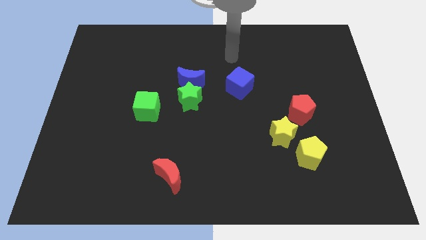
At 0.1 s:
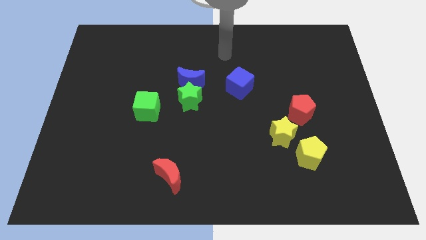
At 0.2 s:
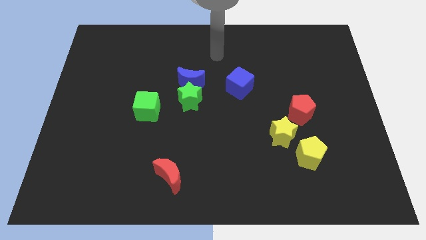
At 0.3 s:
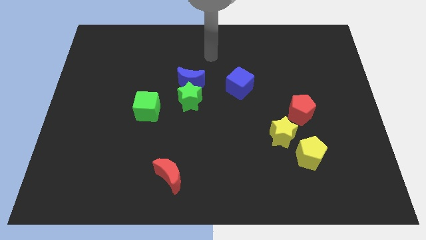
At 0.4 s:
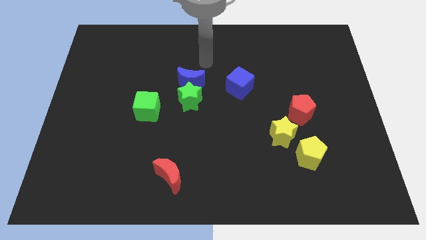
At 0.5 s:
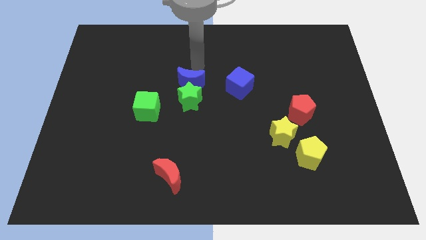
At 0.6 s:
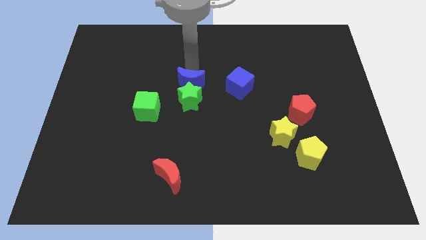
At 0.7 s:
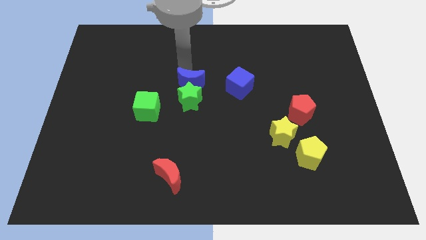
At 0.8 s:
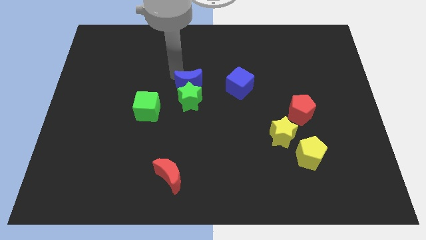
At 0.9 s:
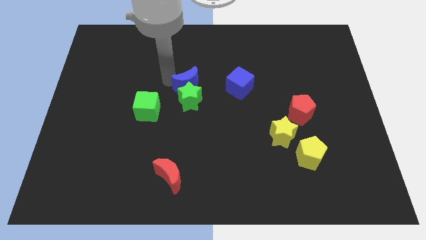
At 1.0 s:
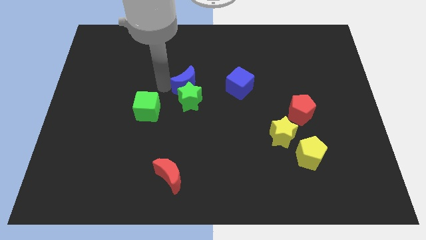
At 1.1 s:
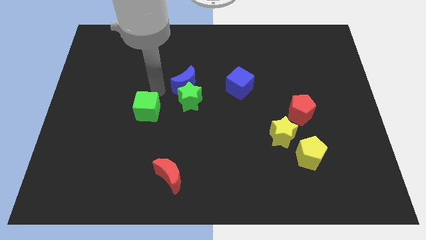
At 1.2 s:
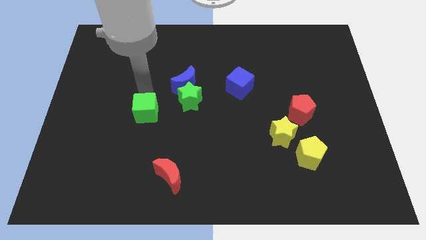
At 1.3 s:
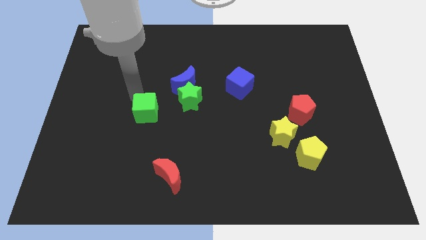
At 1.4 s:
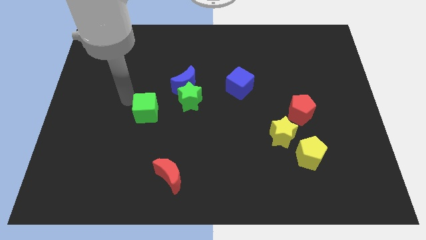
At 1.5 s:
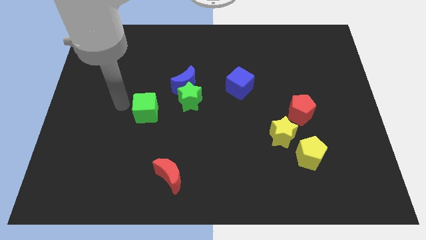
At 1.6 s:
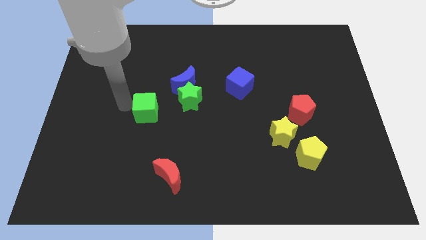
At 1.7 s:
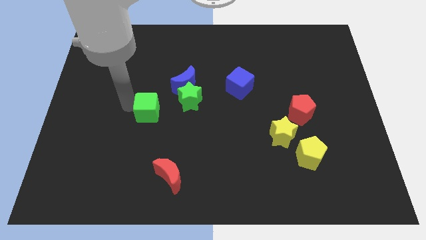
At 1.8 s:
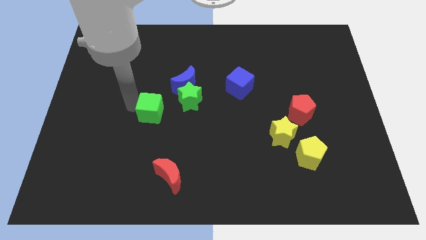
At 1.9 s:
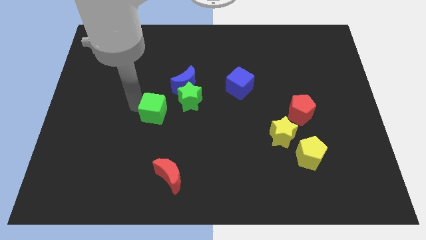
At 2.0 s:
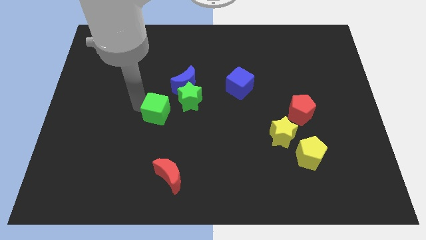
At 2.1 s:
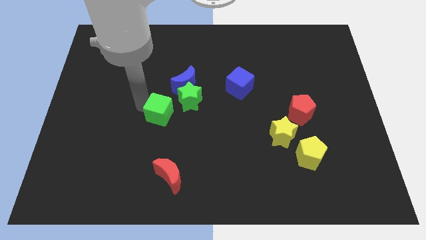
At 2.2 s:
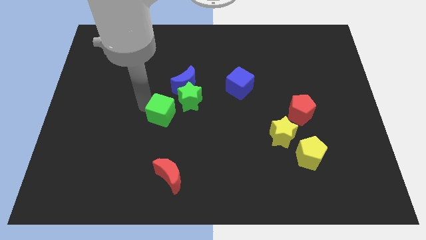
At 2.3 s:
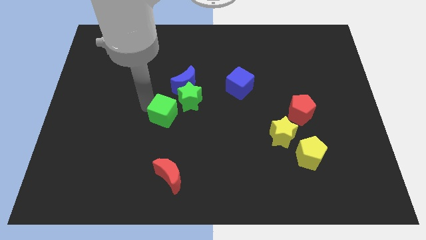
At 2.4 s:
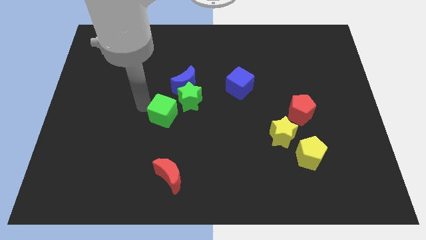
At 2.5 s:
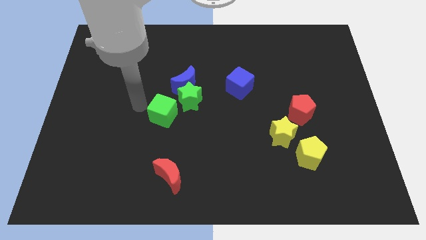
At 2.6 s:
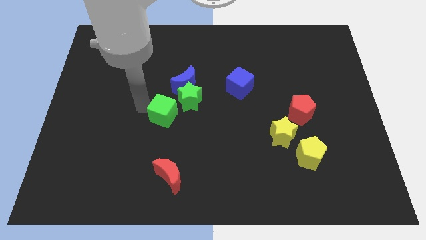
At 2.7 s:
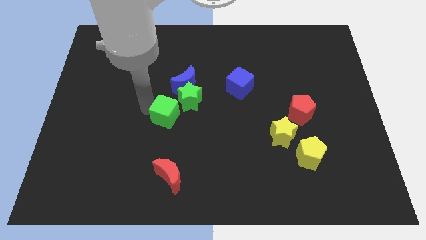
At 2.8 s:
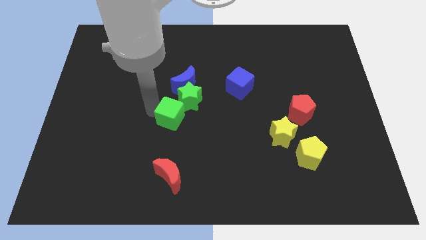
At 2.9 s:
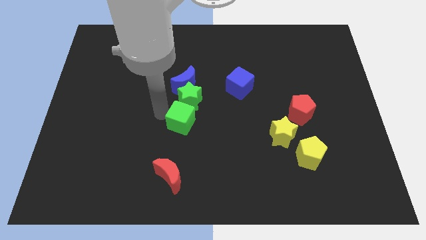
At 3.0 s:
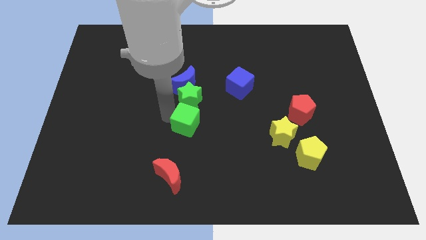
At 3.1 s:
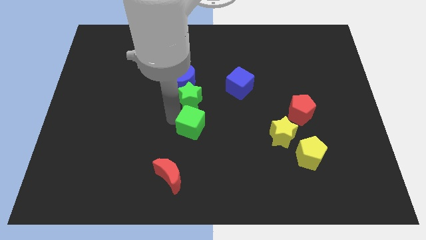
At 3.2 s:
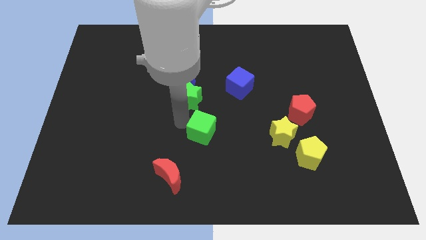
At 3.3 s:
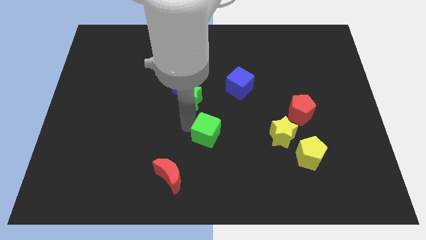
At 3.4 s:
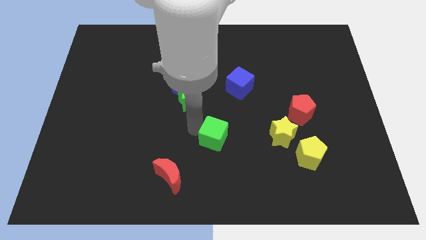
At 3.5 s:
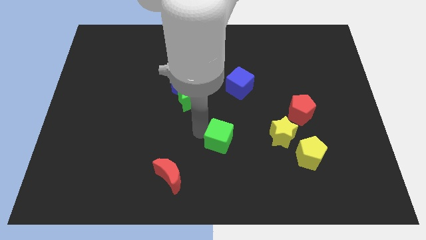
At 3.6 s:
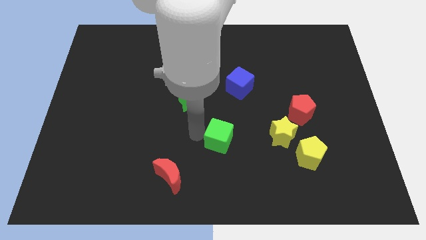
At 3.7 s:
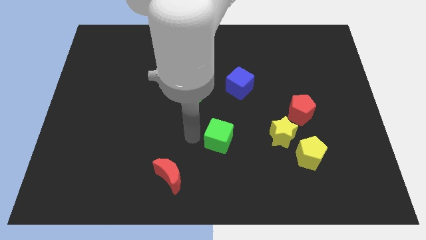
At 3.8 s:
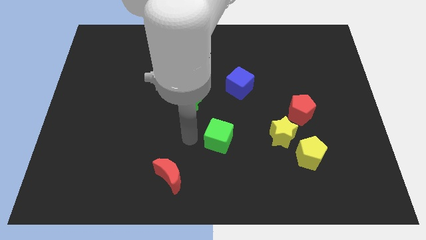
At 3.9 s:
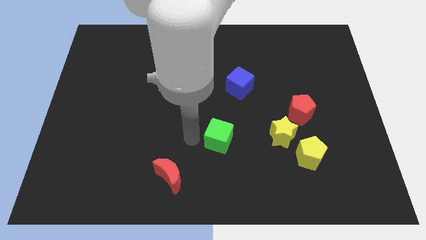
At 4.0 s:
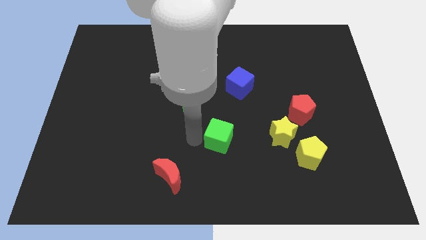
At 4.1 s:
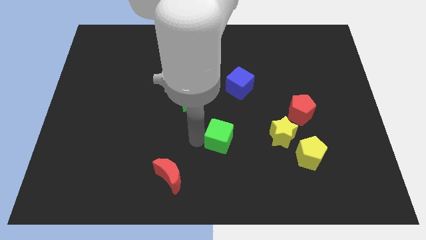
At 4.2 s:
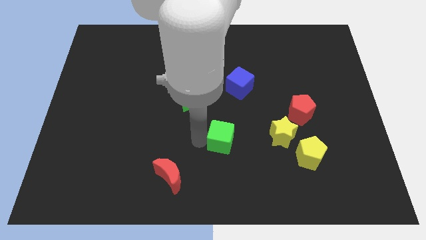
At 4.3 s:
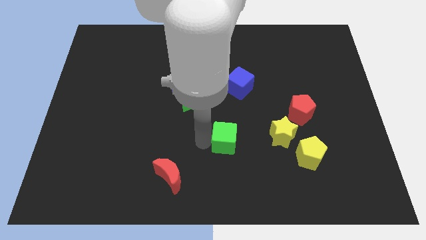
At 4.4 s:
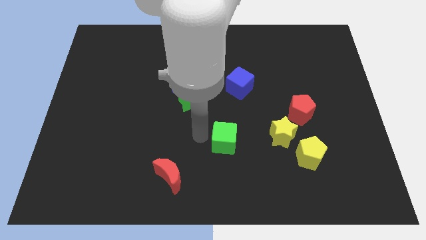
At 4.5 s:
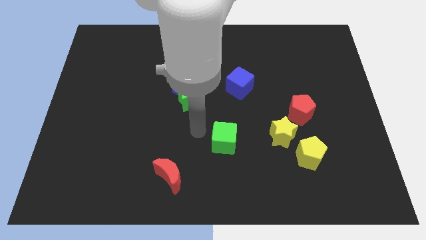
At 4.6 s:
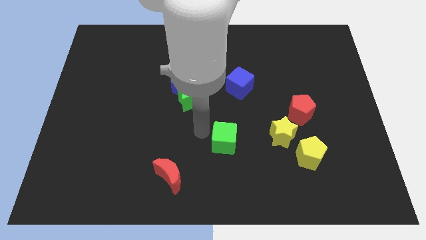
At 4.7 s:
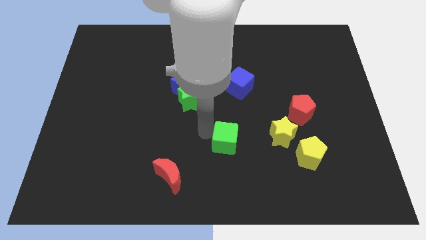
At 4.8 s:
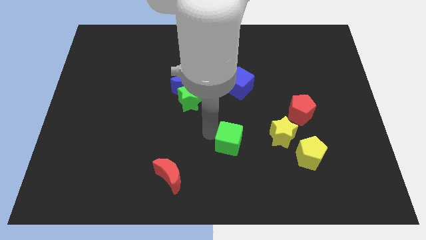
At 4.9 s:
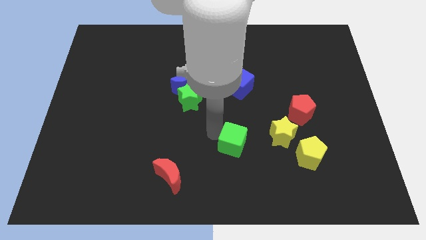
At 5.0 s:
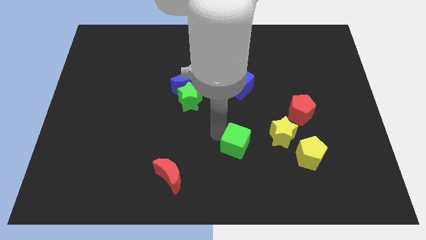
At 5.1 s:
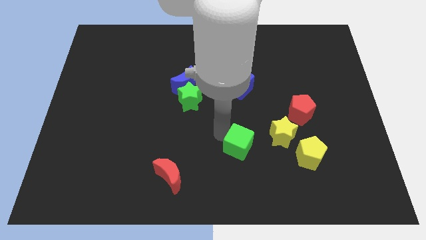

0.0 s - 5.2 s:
push the green cube to the left of the yellow pentagon

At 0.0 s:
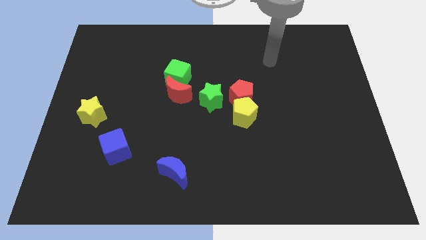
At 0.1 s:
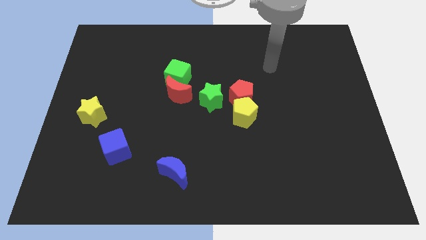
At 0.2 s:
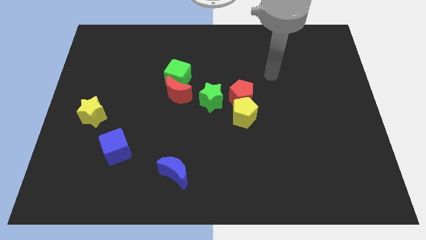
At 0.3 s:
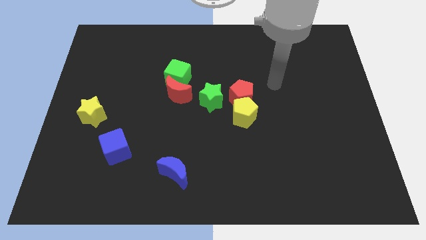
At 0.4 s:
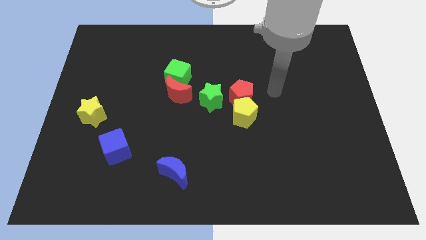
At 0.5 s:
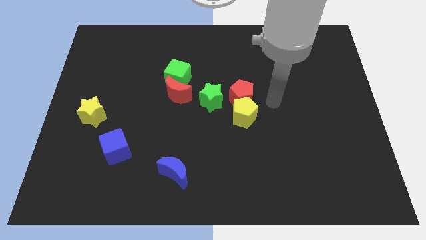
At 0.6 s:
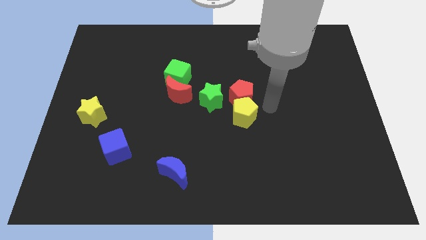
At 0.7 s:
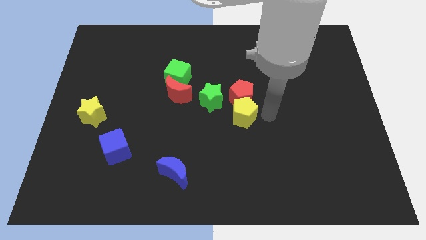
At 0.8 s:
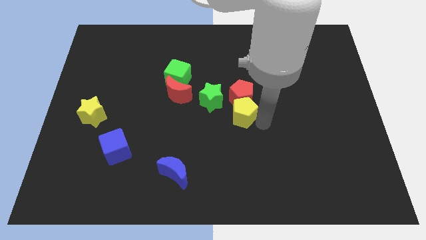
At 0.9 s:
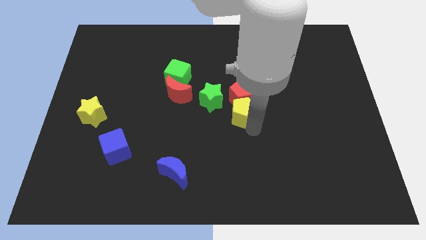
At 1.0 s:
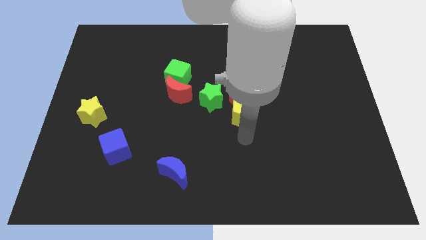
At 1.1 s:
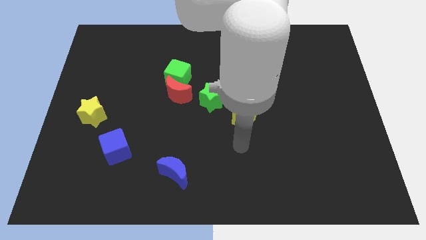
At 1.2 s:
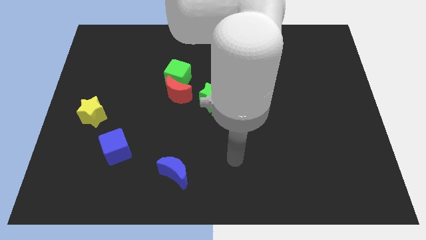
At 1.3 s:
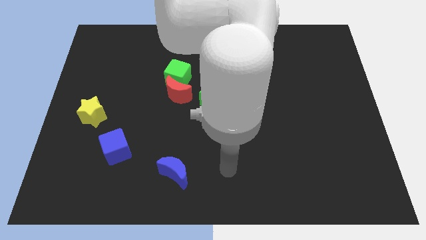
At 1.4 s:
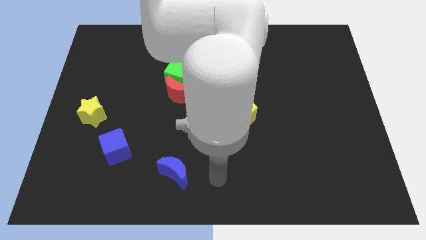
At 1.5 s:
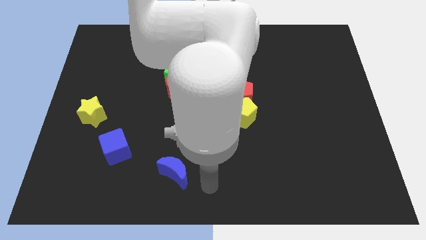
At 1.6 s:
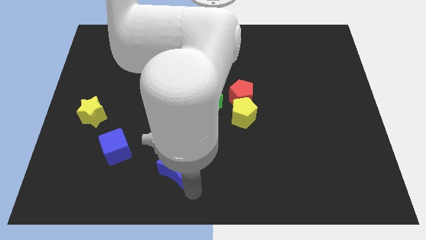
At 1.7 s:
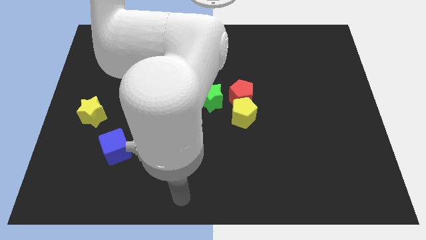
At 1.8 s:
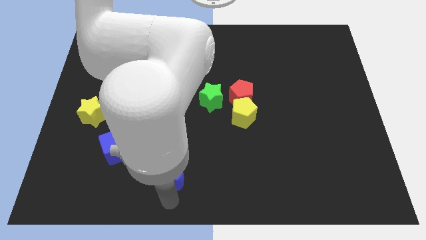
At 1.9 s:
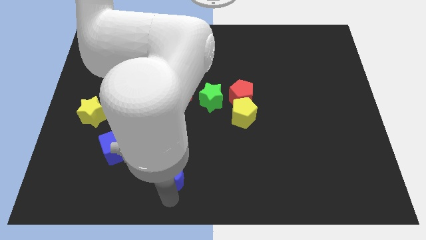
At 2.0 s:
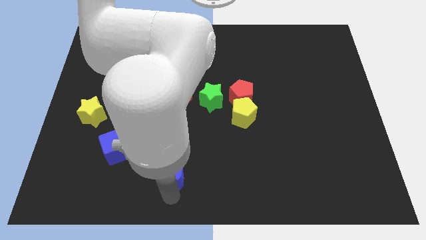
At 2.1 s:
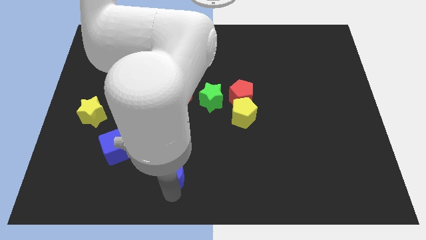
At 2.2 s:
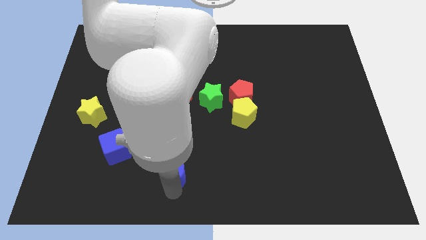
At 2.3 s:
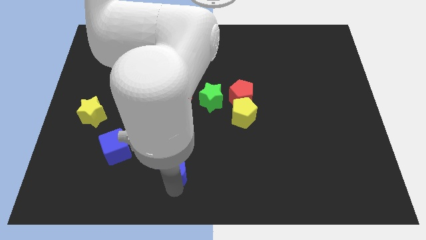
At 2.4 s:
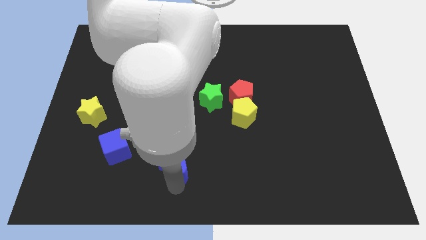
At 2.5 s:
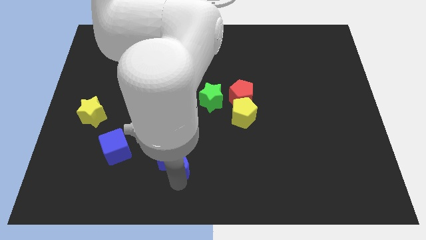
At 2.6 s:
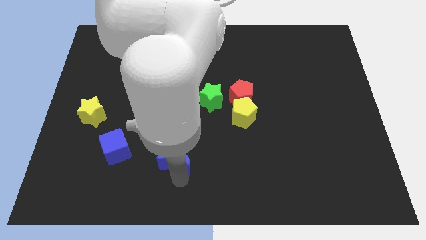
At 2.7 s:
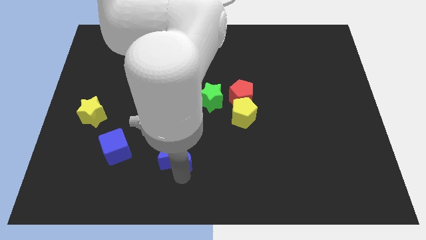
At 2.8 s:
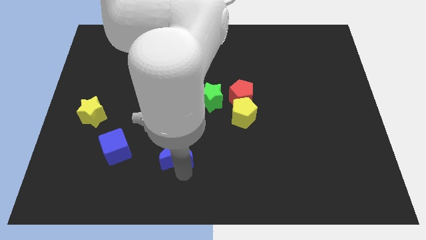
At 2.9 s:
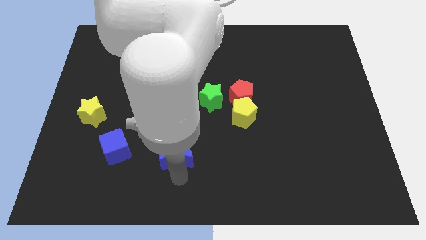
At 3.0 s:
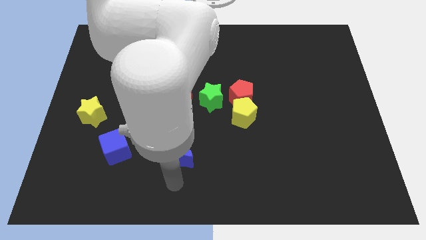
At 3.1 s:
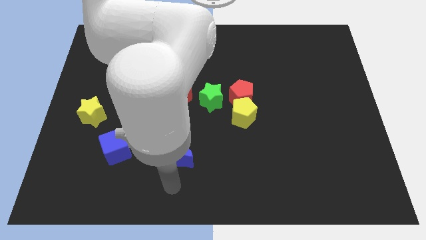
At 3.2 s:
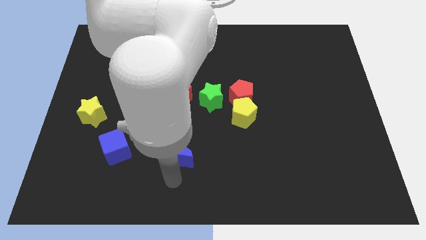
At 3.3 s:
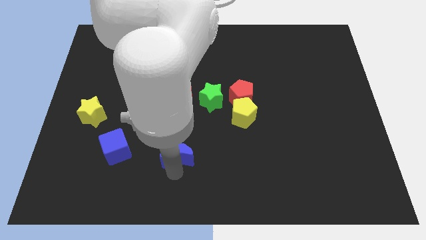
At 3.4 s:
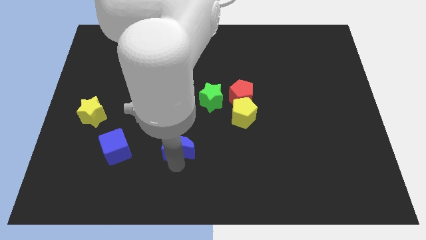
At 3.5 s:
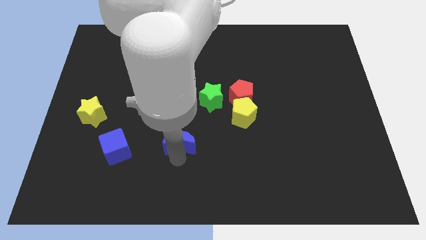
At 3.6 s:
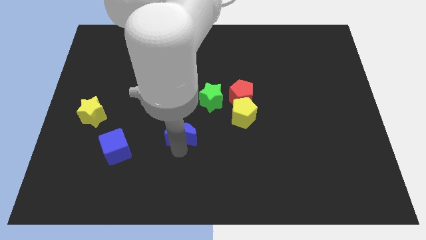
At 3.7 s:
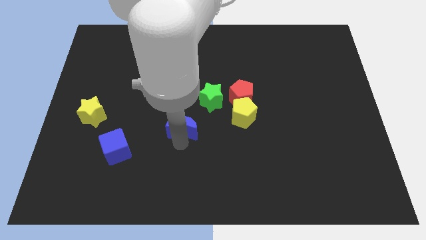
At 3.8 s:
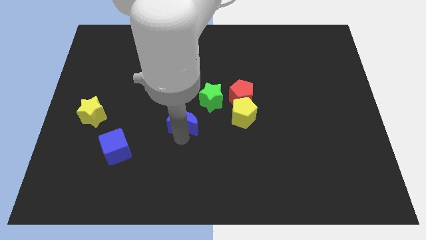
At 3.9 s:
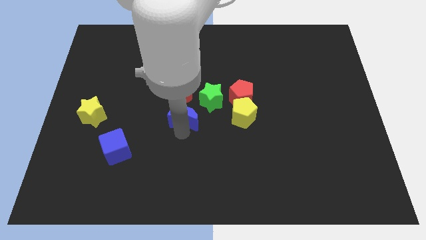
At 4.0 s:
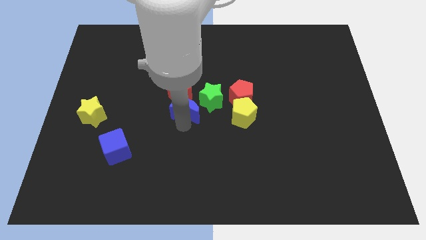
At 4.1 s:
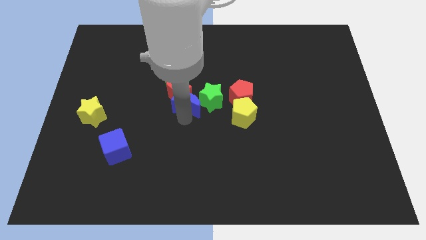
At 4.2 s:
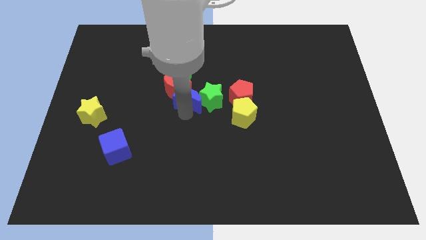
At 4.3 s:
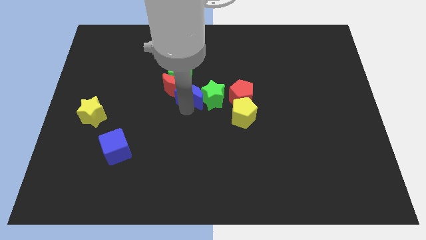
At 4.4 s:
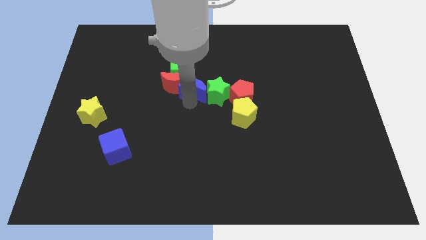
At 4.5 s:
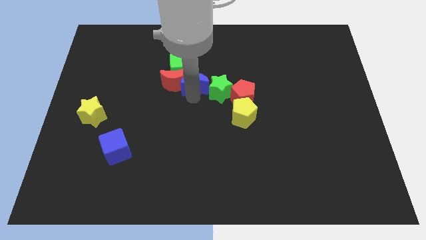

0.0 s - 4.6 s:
slide the blue moon to the top right side of the red moon
